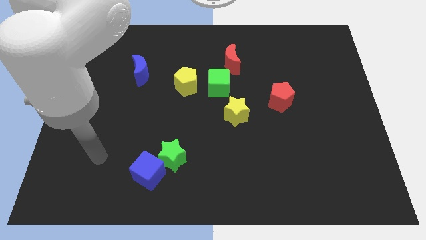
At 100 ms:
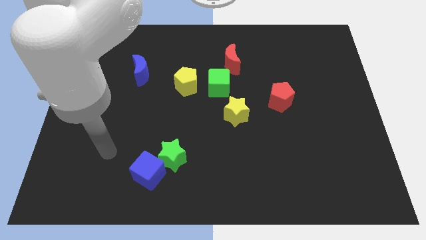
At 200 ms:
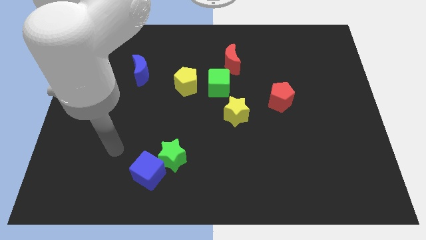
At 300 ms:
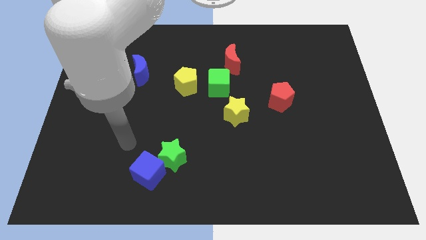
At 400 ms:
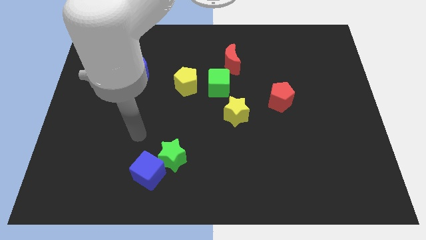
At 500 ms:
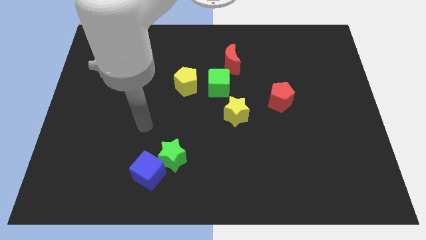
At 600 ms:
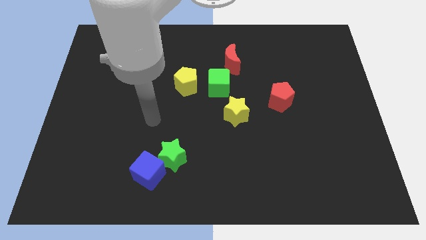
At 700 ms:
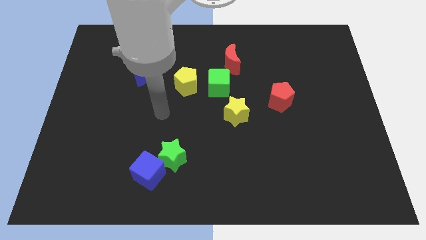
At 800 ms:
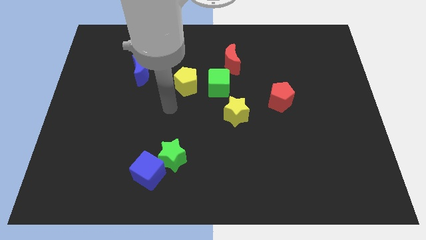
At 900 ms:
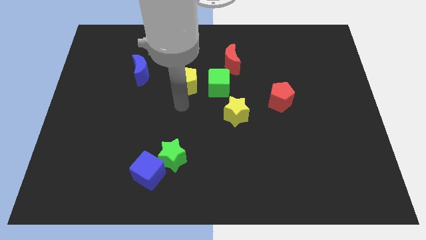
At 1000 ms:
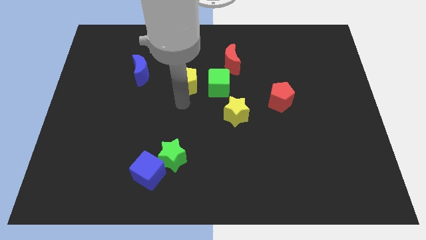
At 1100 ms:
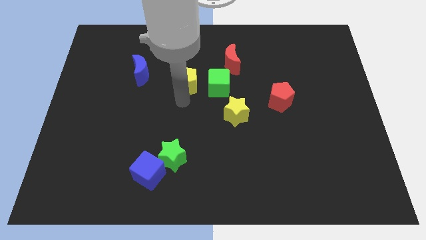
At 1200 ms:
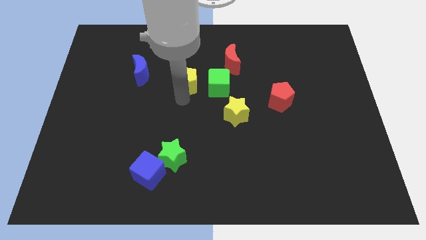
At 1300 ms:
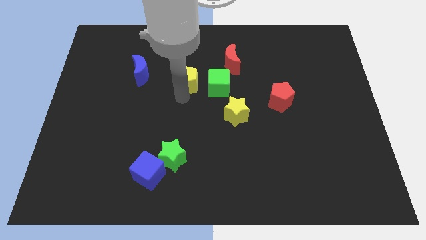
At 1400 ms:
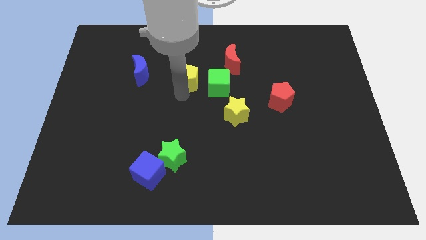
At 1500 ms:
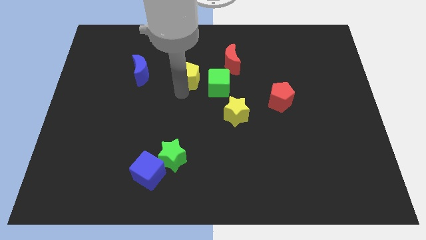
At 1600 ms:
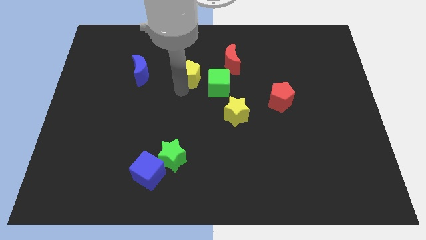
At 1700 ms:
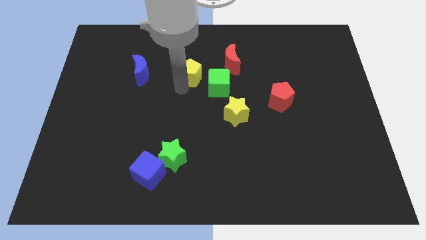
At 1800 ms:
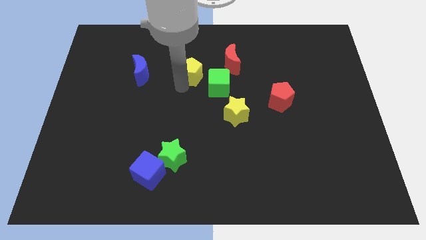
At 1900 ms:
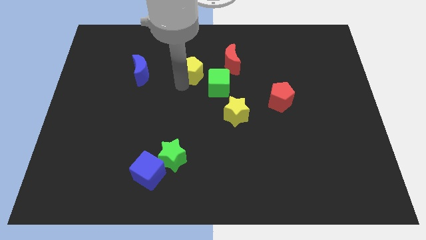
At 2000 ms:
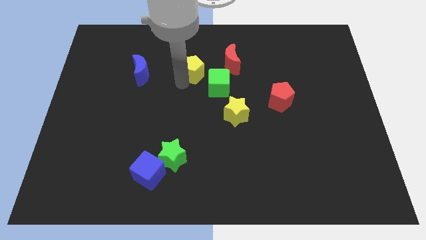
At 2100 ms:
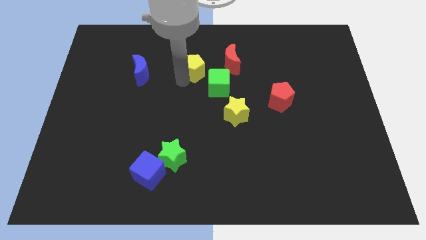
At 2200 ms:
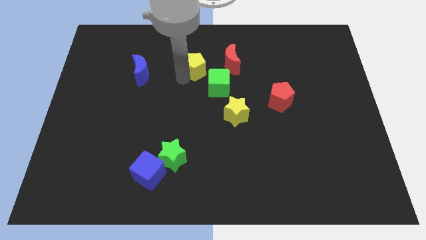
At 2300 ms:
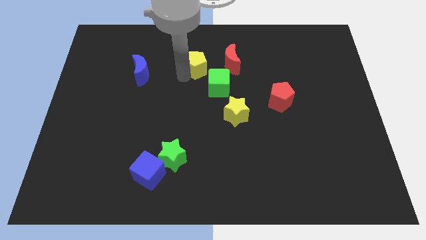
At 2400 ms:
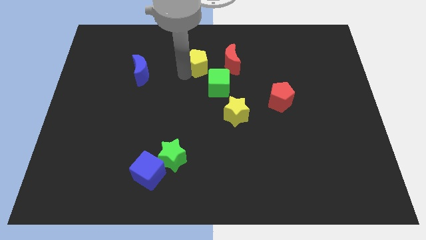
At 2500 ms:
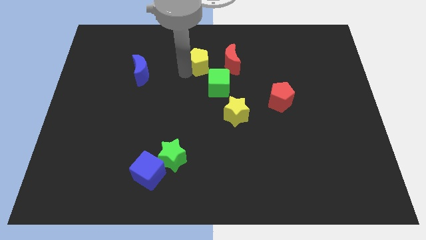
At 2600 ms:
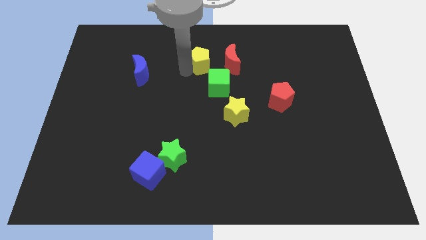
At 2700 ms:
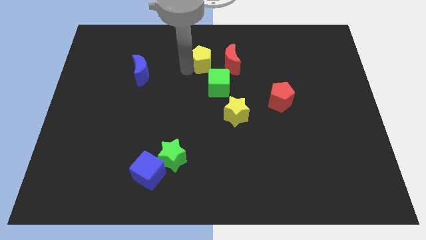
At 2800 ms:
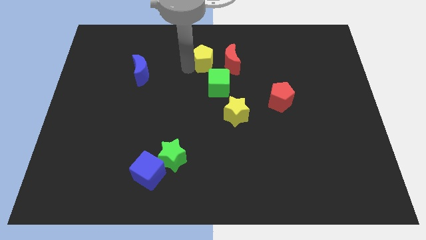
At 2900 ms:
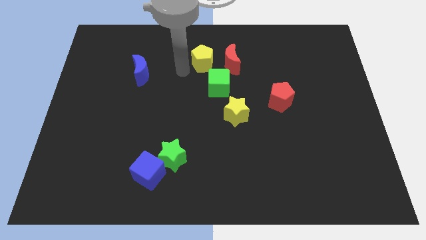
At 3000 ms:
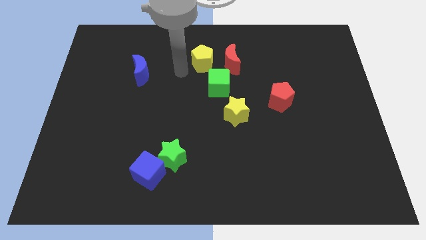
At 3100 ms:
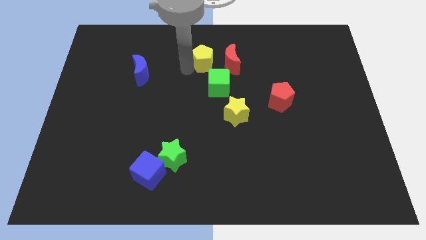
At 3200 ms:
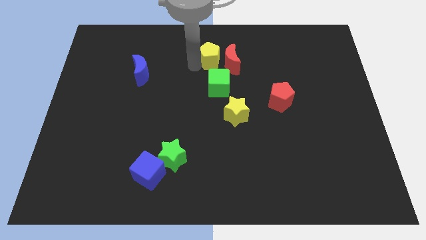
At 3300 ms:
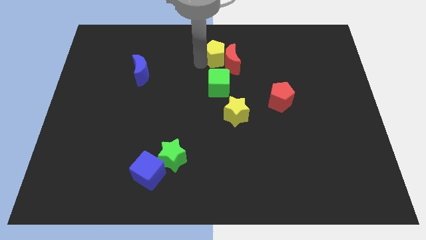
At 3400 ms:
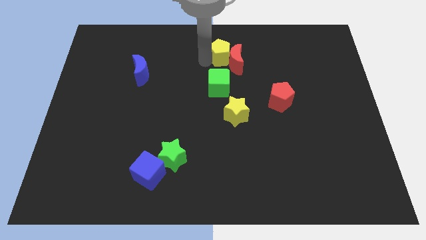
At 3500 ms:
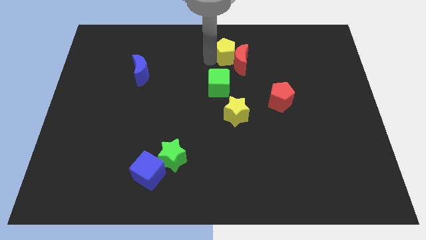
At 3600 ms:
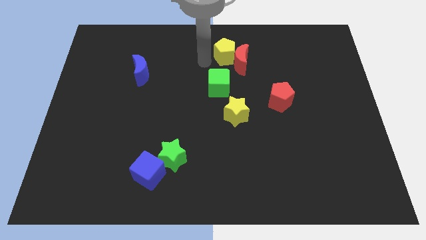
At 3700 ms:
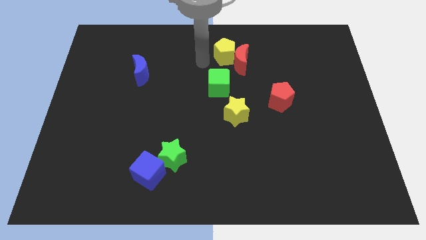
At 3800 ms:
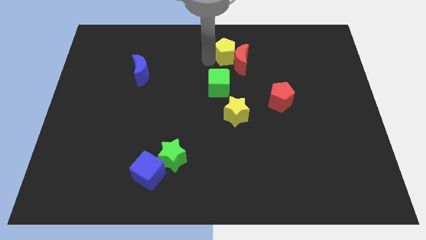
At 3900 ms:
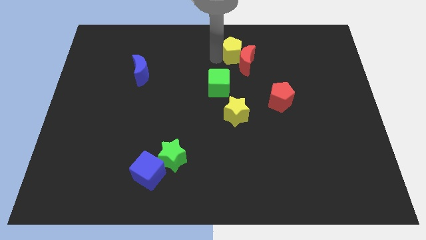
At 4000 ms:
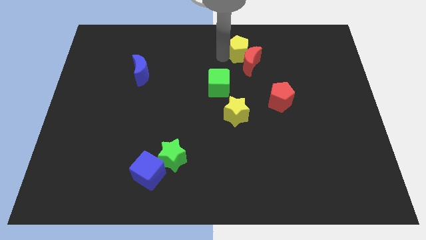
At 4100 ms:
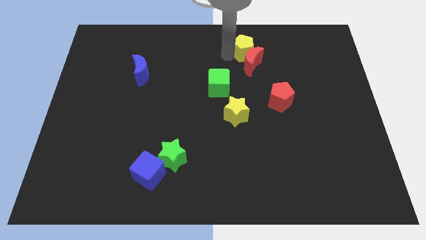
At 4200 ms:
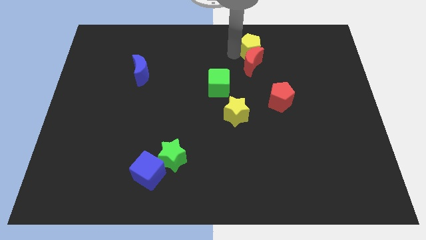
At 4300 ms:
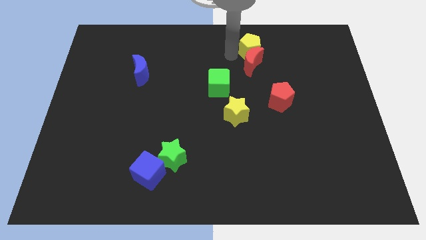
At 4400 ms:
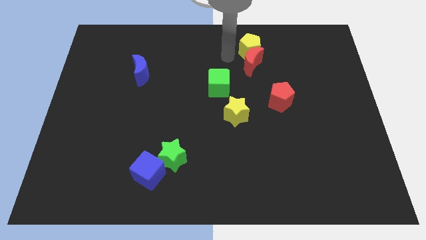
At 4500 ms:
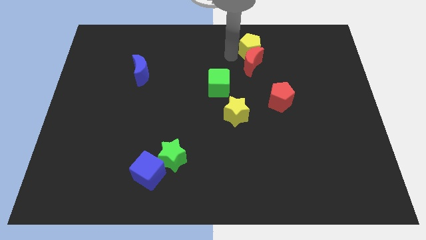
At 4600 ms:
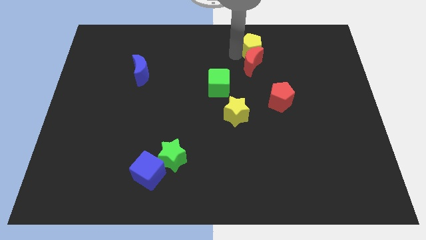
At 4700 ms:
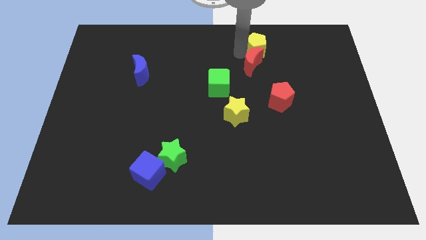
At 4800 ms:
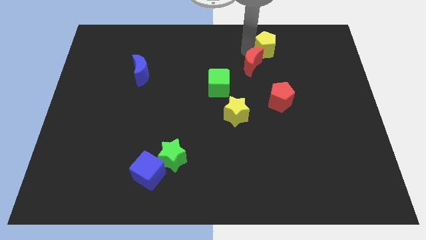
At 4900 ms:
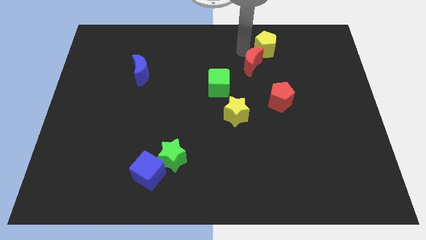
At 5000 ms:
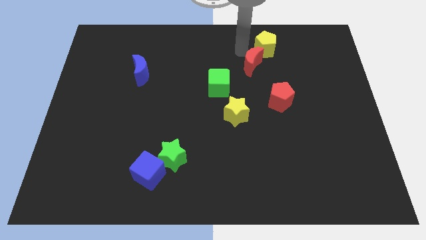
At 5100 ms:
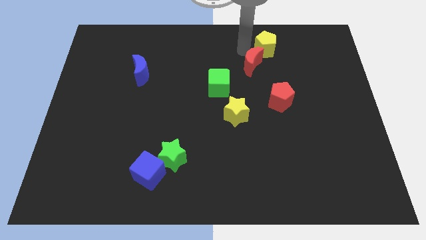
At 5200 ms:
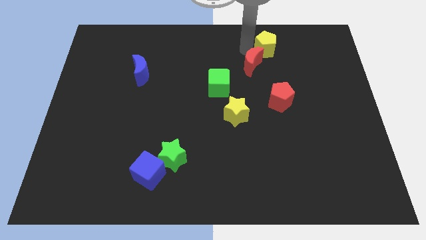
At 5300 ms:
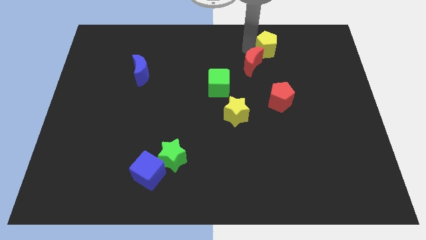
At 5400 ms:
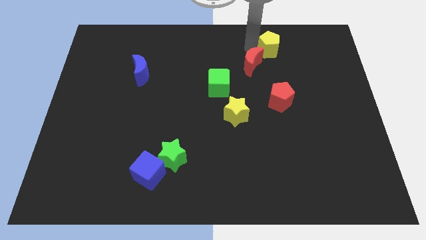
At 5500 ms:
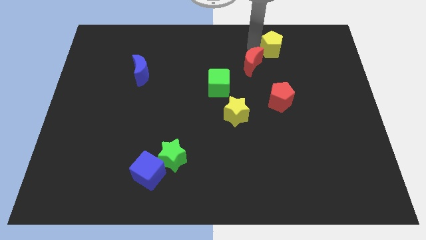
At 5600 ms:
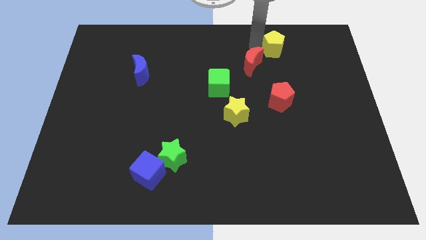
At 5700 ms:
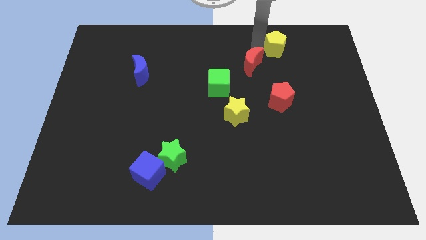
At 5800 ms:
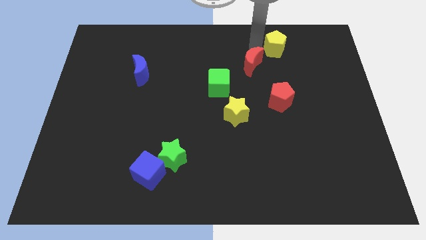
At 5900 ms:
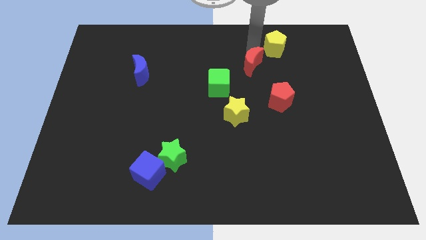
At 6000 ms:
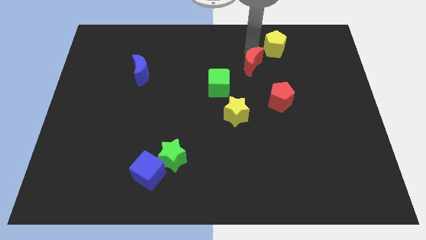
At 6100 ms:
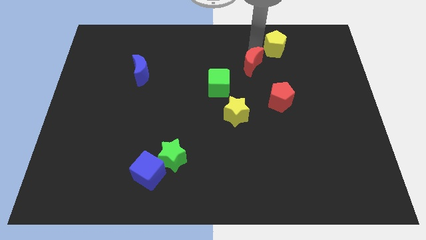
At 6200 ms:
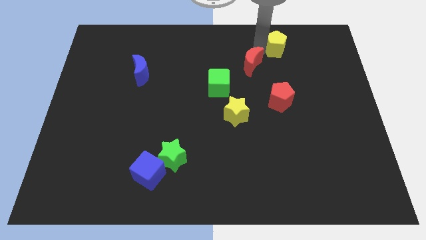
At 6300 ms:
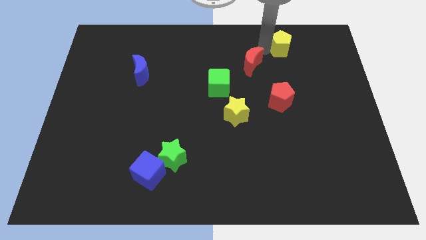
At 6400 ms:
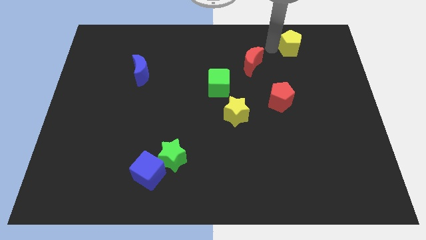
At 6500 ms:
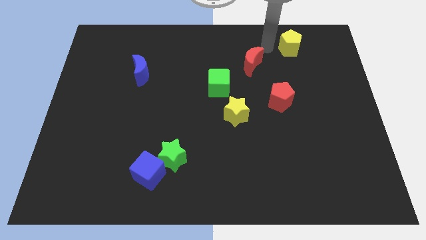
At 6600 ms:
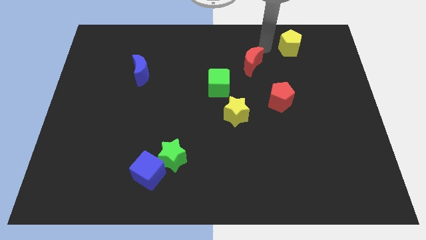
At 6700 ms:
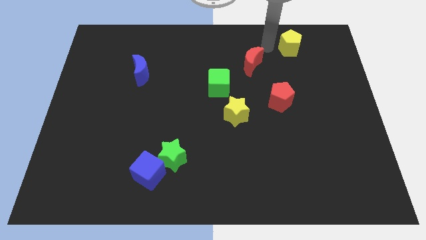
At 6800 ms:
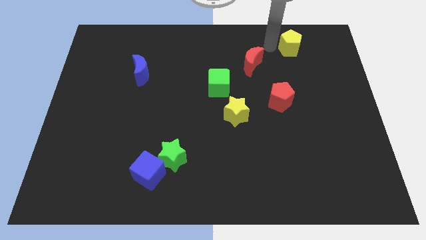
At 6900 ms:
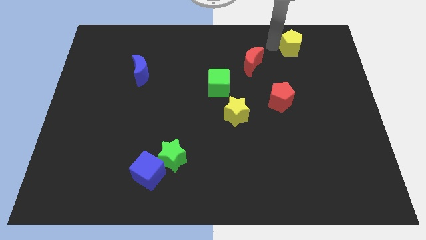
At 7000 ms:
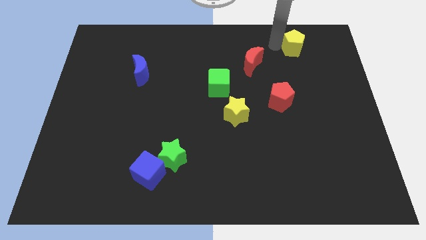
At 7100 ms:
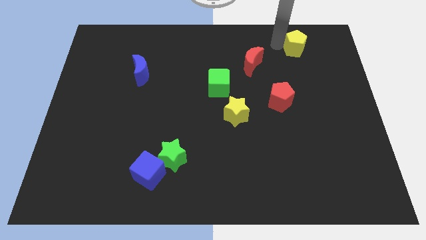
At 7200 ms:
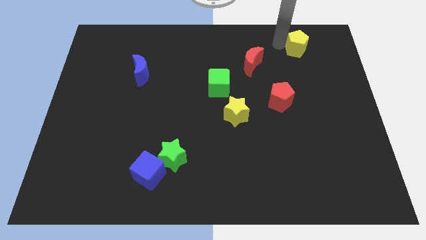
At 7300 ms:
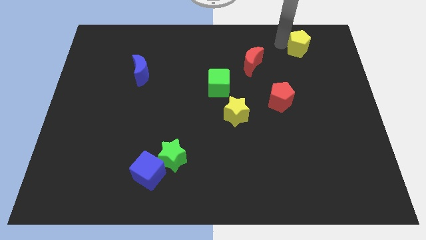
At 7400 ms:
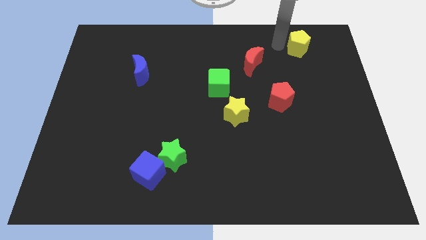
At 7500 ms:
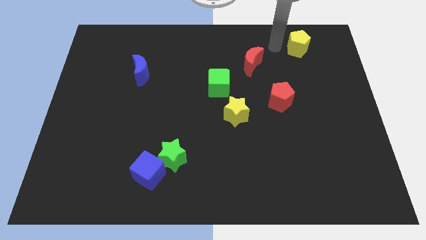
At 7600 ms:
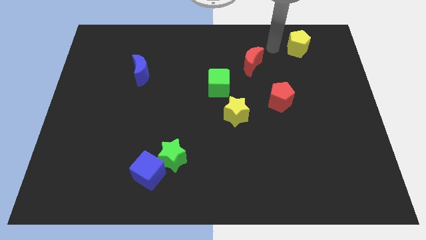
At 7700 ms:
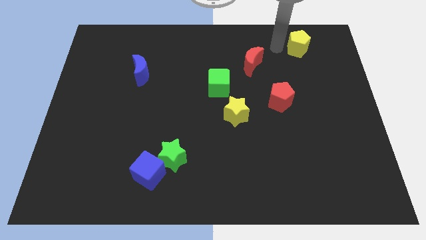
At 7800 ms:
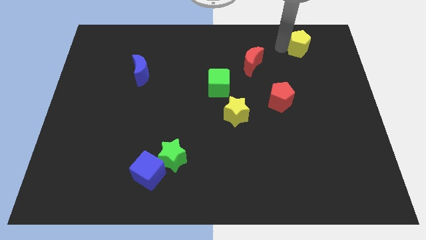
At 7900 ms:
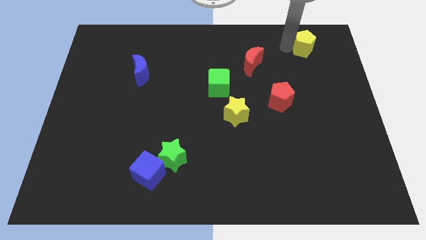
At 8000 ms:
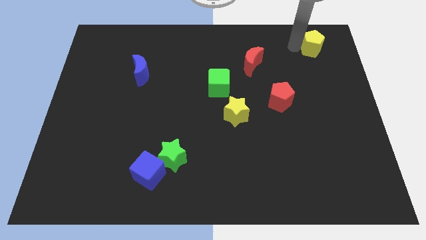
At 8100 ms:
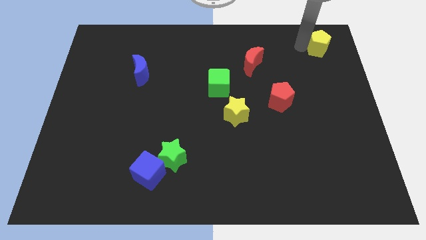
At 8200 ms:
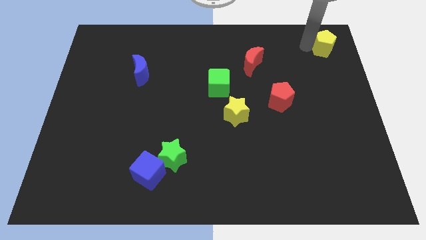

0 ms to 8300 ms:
move the yellow pentagon to the top right of the board
